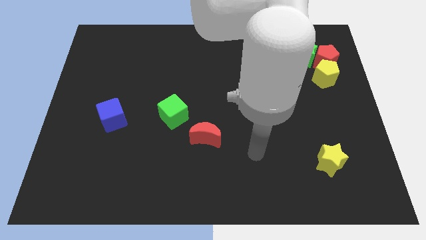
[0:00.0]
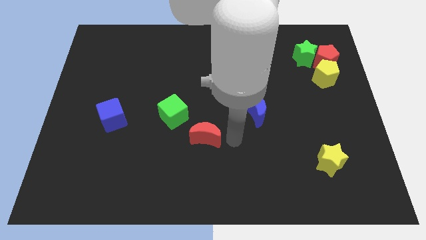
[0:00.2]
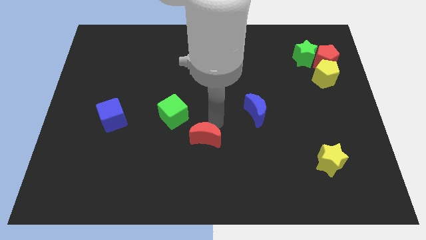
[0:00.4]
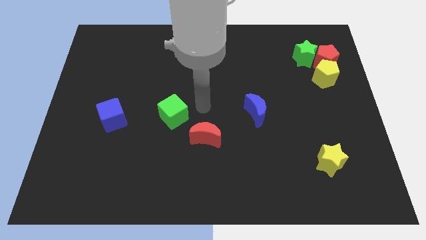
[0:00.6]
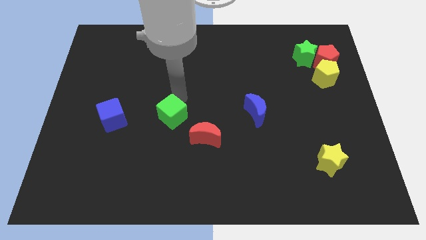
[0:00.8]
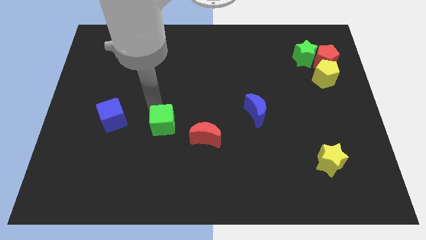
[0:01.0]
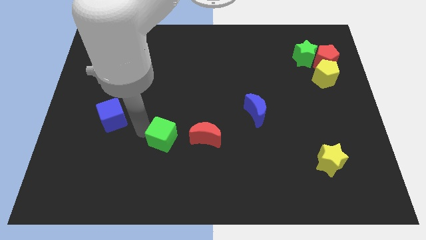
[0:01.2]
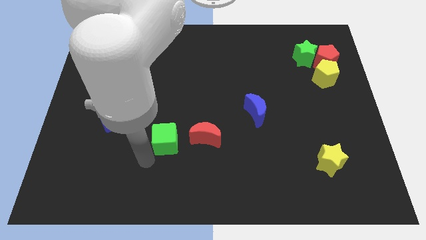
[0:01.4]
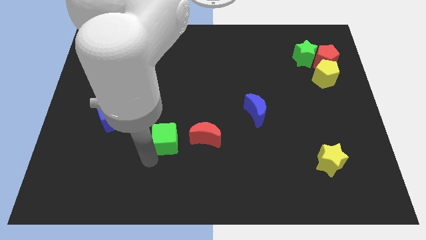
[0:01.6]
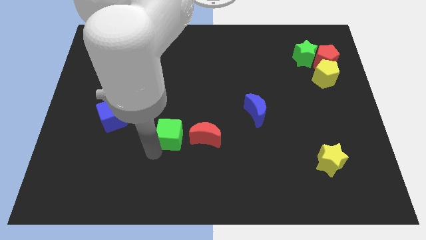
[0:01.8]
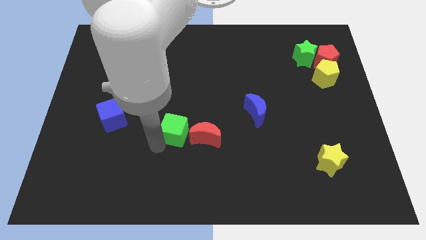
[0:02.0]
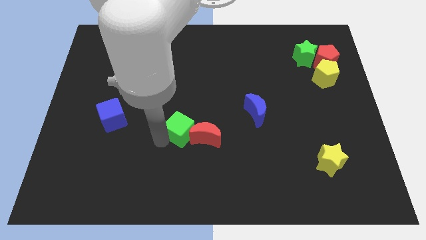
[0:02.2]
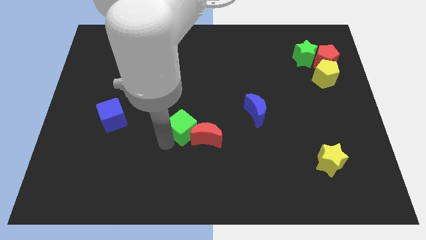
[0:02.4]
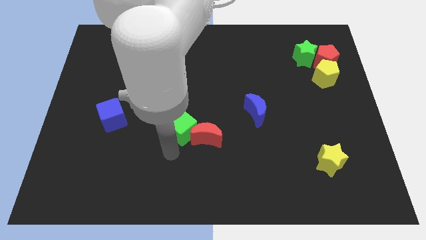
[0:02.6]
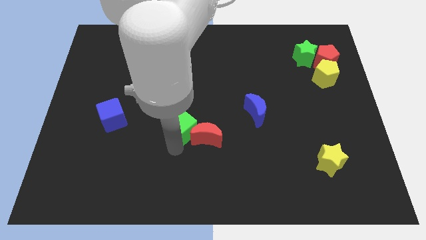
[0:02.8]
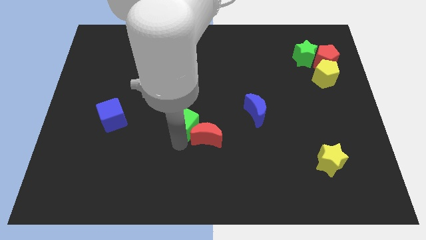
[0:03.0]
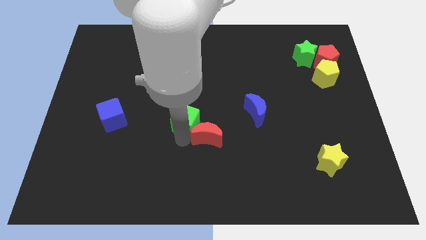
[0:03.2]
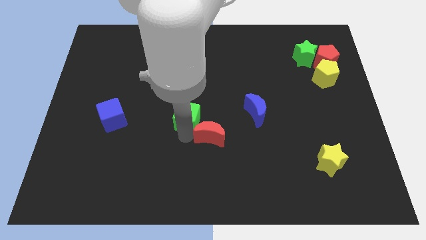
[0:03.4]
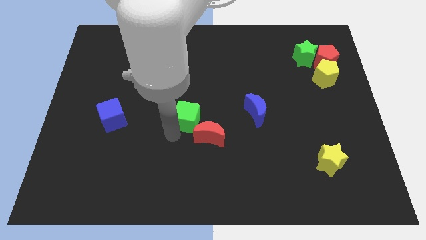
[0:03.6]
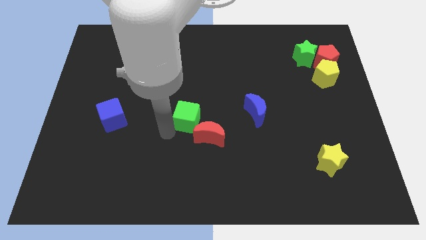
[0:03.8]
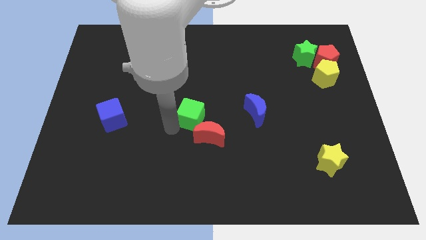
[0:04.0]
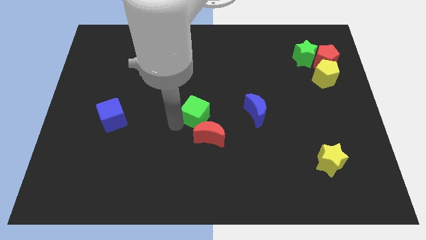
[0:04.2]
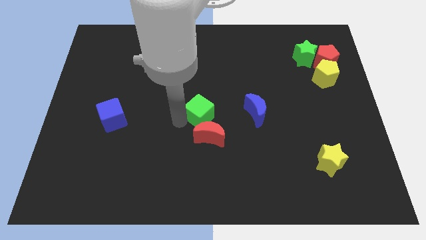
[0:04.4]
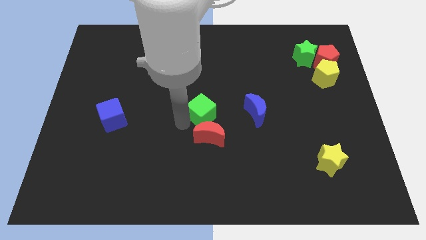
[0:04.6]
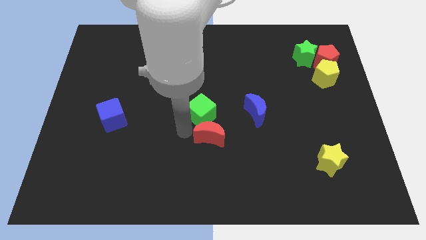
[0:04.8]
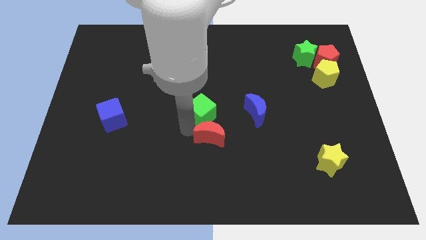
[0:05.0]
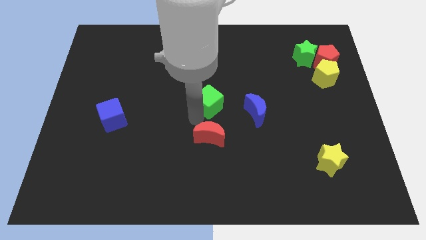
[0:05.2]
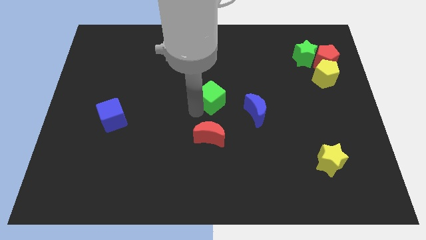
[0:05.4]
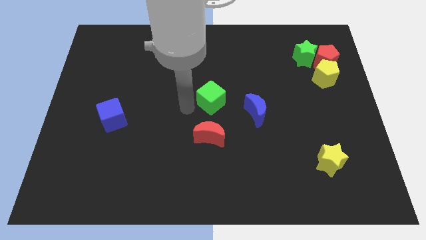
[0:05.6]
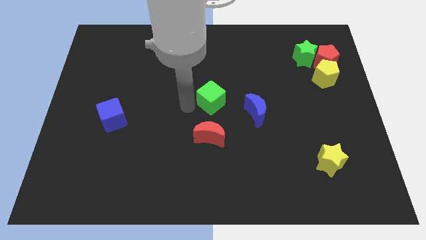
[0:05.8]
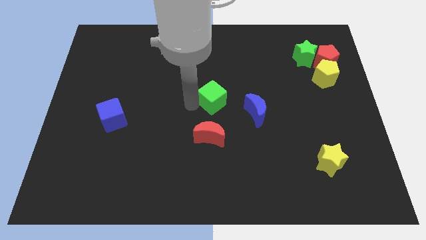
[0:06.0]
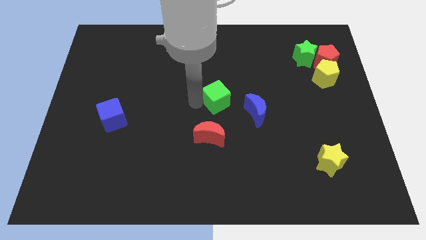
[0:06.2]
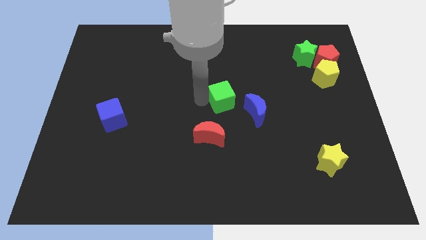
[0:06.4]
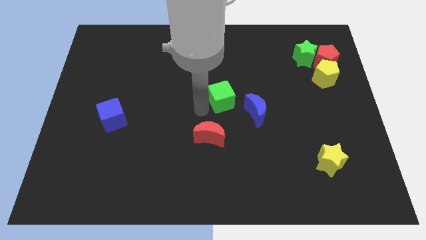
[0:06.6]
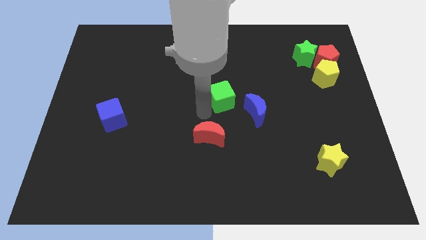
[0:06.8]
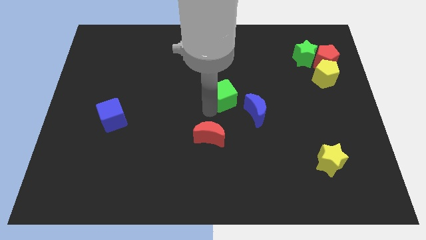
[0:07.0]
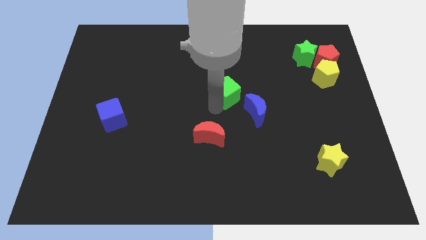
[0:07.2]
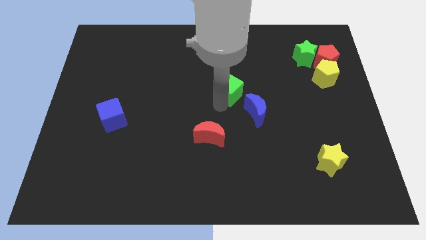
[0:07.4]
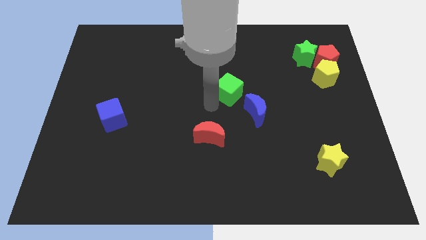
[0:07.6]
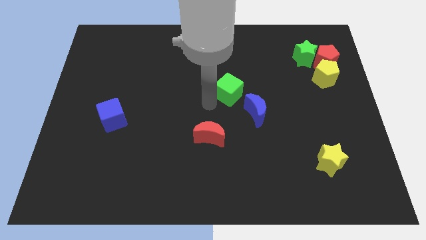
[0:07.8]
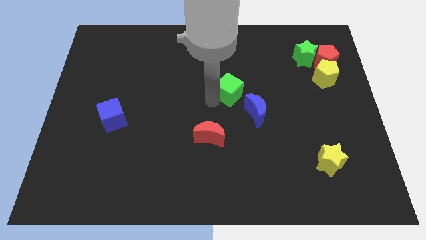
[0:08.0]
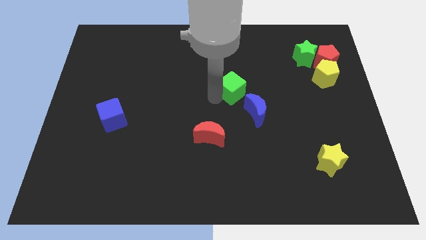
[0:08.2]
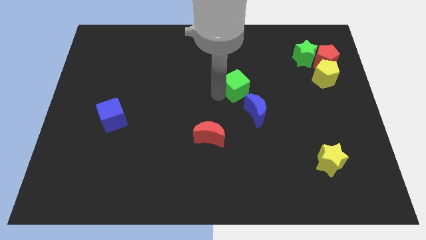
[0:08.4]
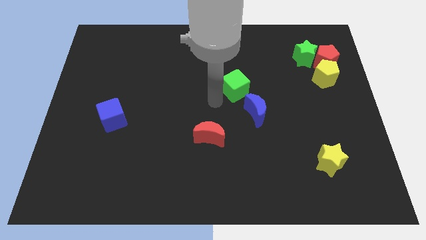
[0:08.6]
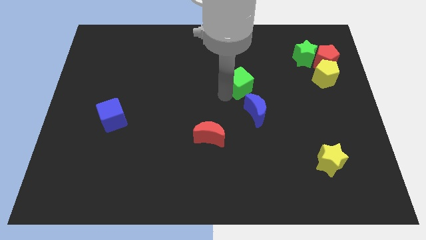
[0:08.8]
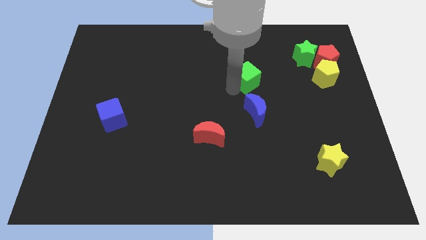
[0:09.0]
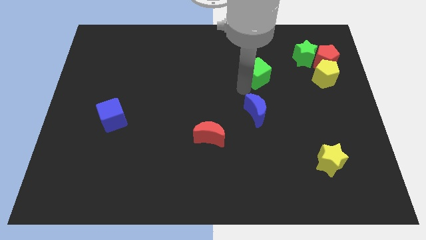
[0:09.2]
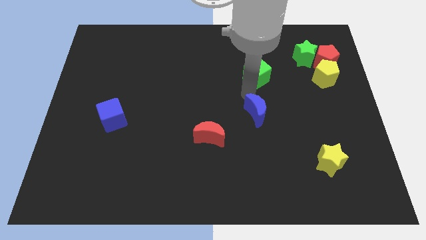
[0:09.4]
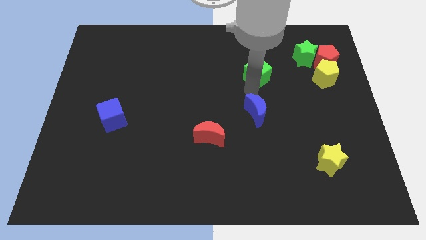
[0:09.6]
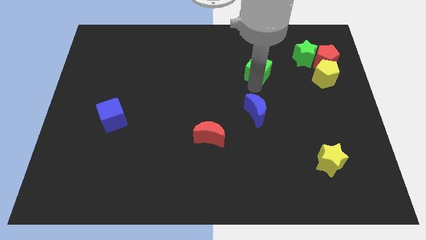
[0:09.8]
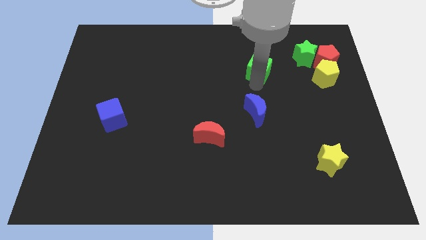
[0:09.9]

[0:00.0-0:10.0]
slide the green cube to the left side of the green star

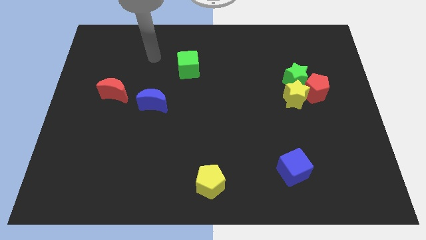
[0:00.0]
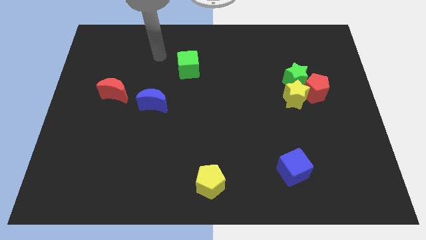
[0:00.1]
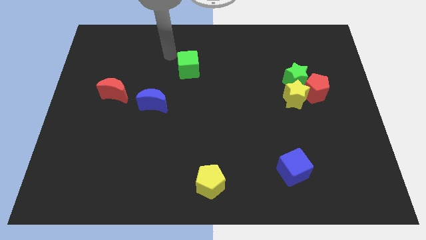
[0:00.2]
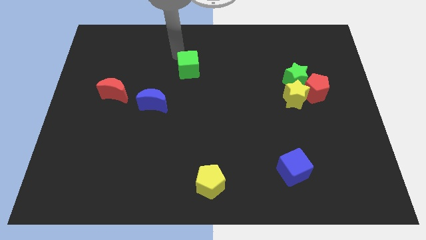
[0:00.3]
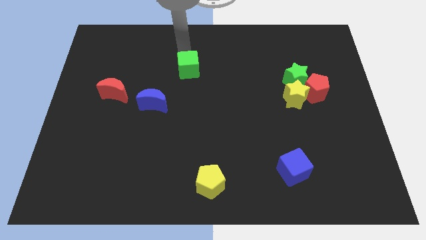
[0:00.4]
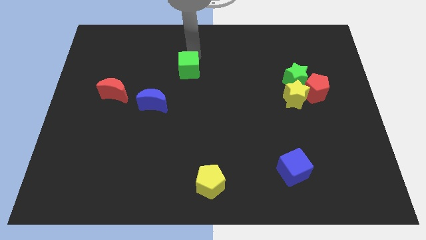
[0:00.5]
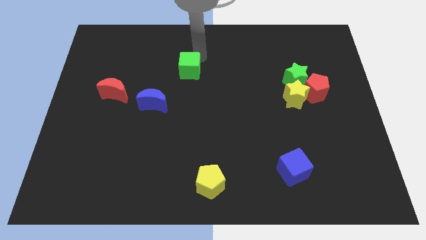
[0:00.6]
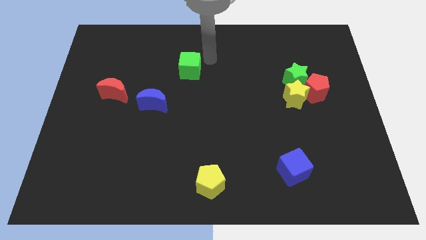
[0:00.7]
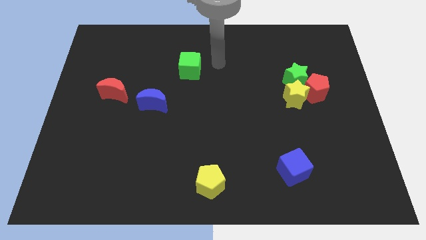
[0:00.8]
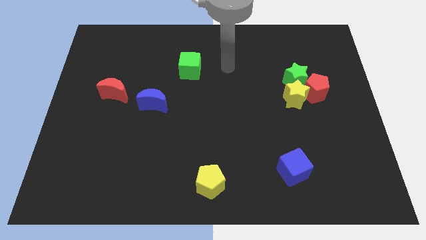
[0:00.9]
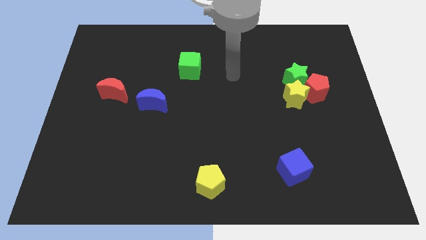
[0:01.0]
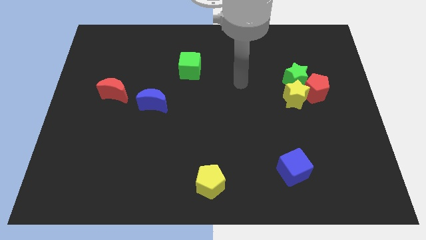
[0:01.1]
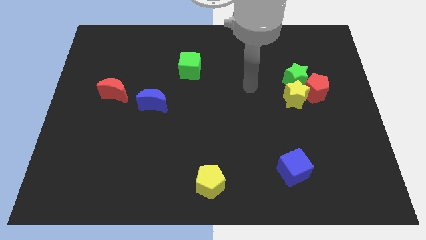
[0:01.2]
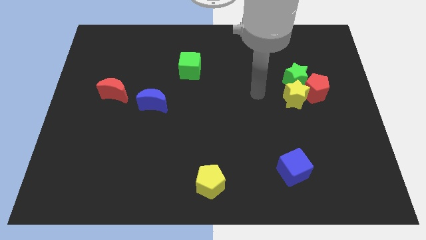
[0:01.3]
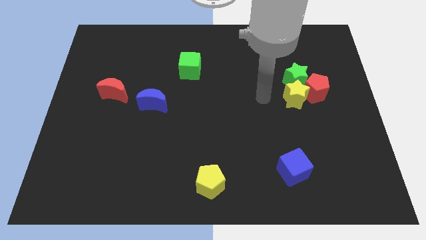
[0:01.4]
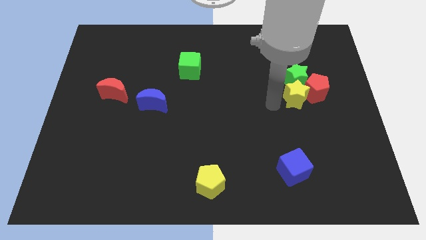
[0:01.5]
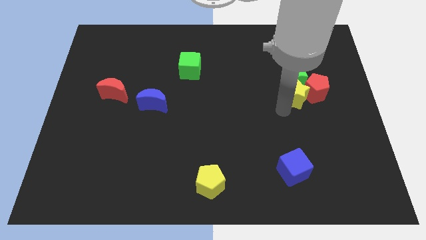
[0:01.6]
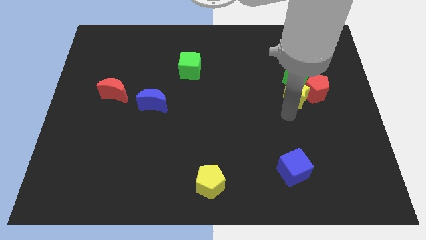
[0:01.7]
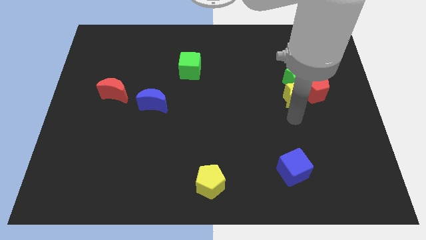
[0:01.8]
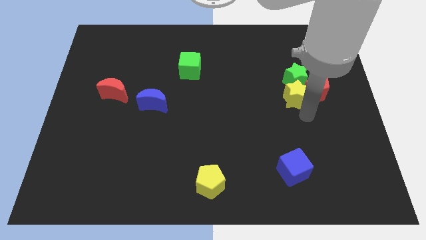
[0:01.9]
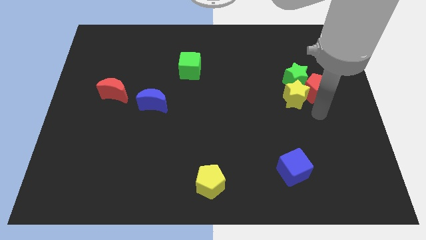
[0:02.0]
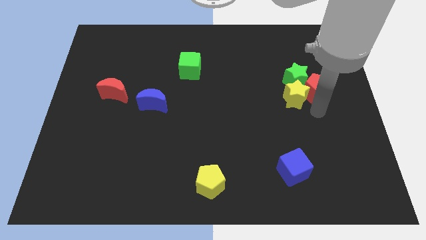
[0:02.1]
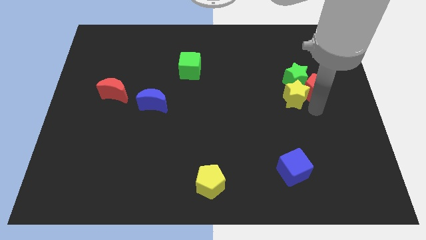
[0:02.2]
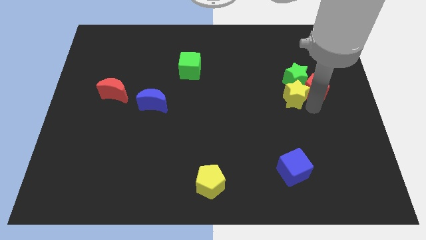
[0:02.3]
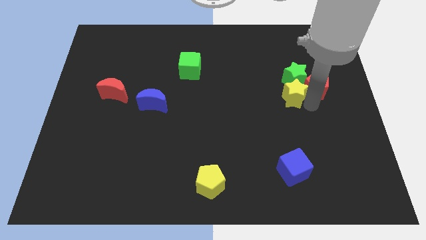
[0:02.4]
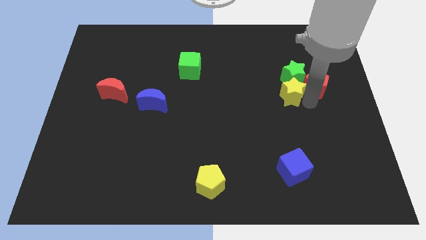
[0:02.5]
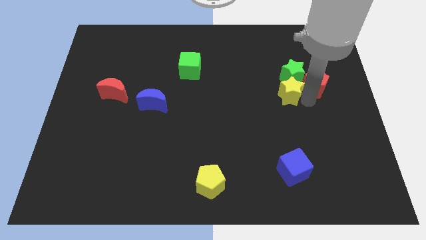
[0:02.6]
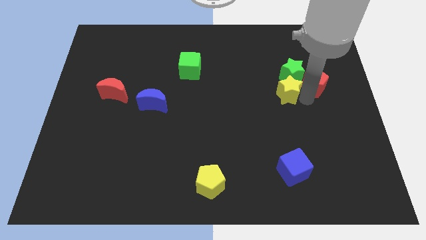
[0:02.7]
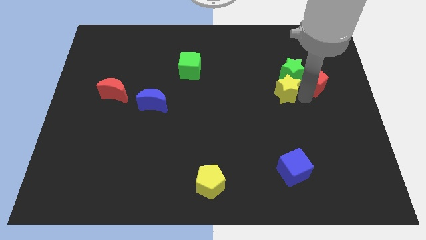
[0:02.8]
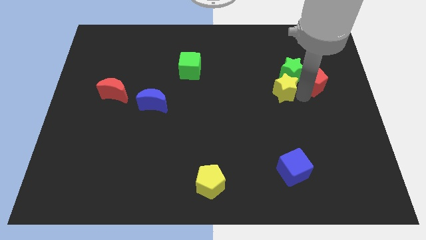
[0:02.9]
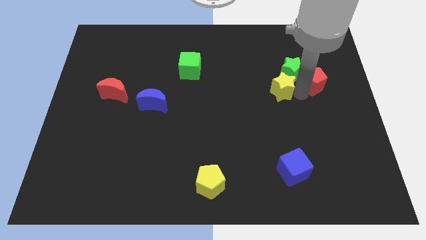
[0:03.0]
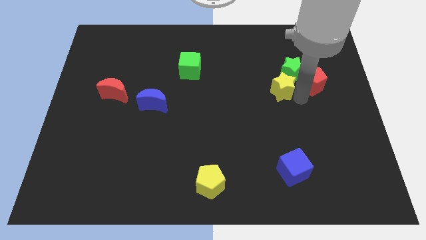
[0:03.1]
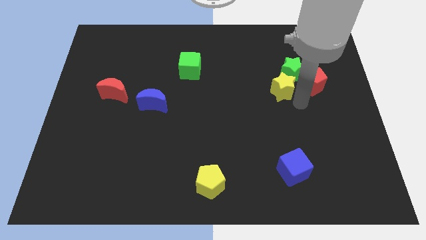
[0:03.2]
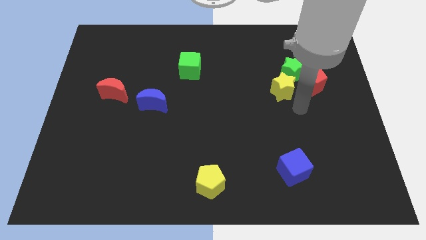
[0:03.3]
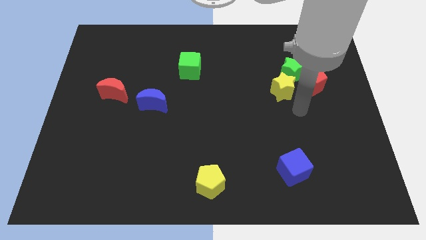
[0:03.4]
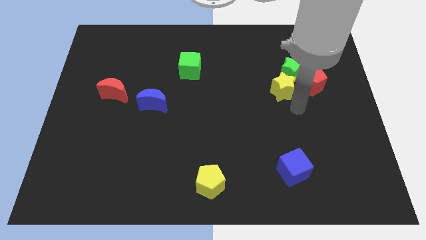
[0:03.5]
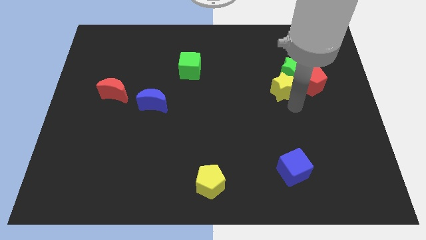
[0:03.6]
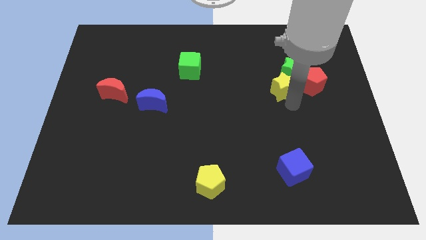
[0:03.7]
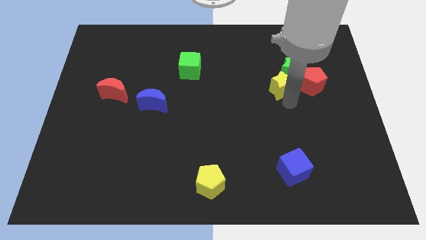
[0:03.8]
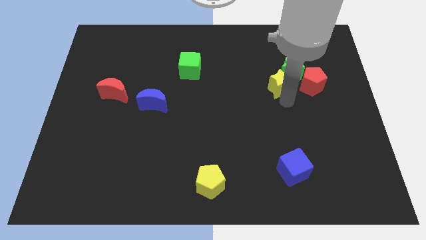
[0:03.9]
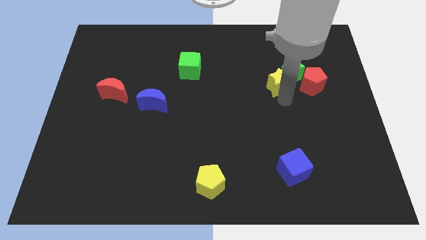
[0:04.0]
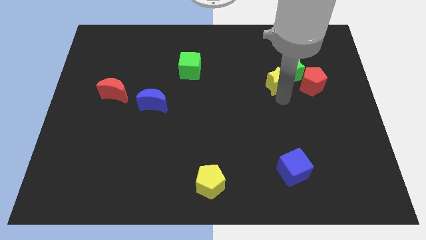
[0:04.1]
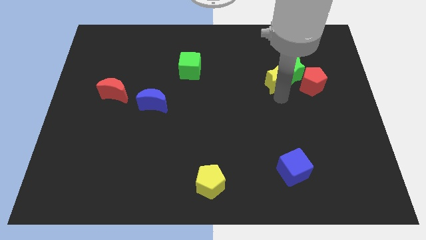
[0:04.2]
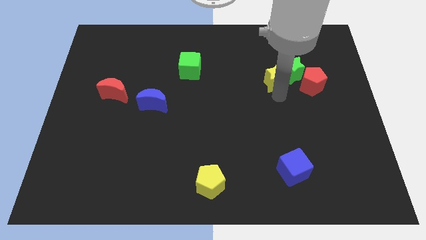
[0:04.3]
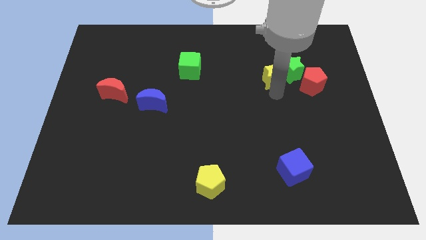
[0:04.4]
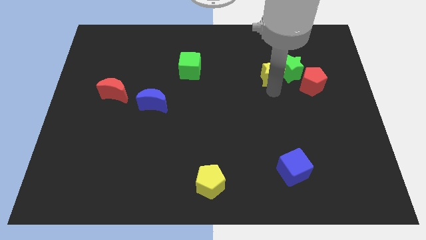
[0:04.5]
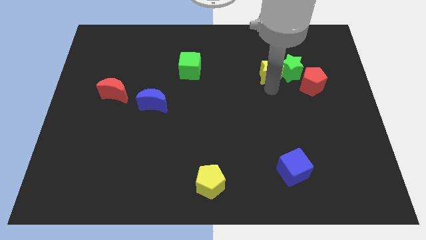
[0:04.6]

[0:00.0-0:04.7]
move the yellow star diagonally up and to the left of the green star
